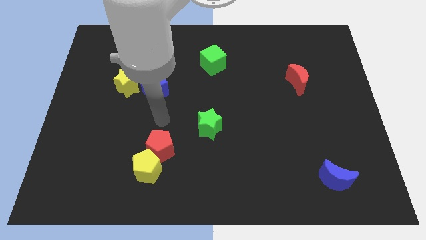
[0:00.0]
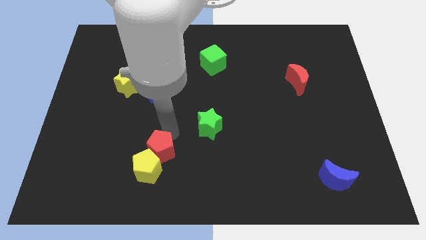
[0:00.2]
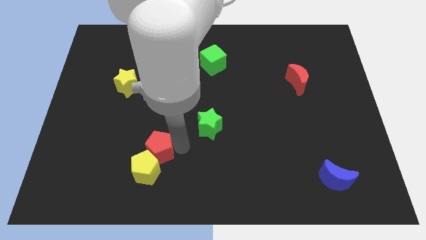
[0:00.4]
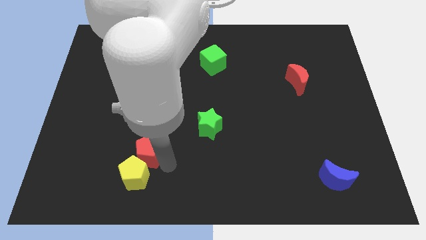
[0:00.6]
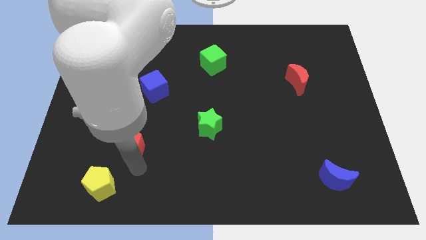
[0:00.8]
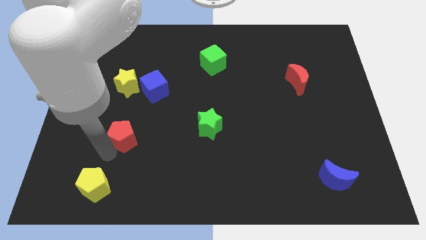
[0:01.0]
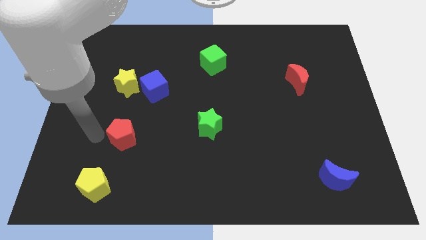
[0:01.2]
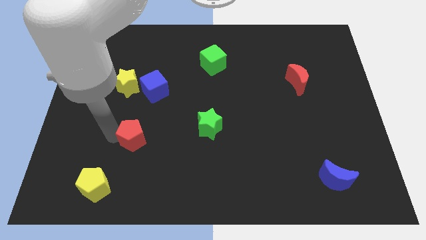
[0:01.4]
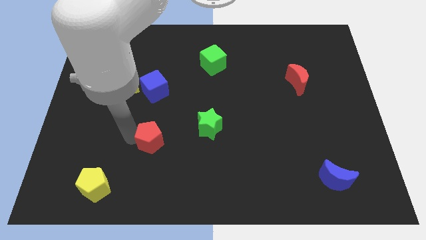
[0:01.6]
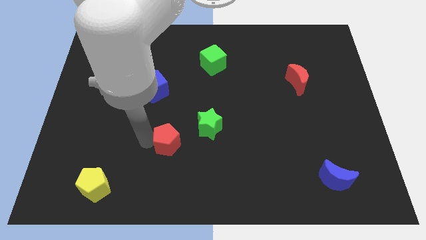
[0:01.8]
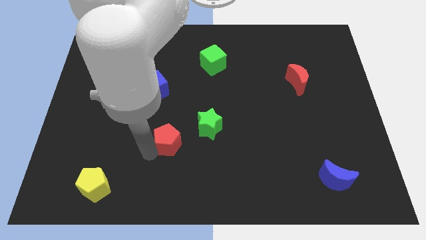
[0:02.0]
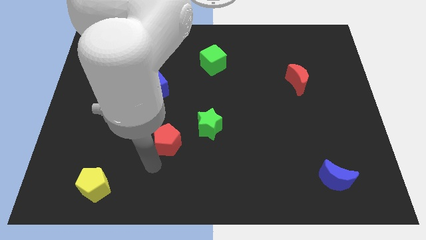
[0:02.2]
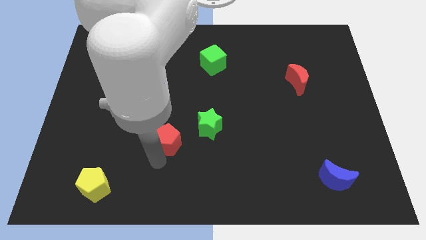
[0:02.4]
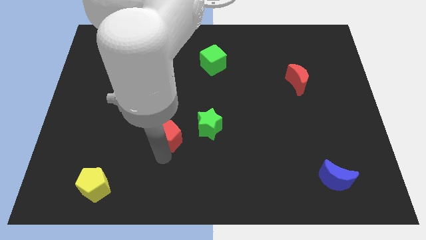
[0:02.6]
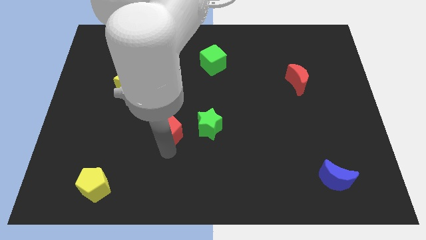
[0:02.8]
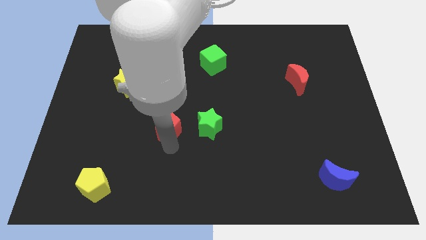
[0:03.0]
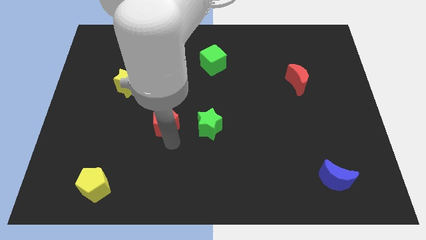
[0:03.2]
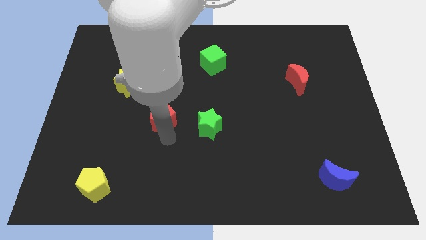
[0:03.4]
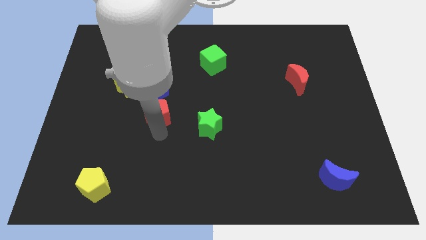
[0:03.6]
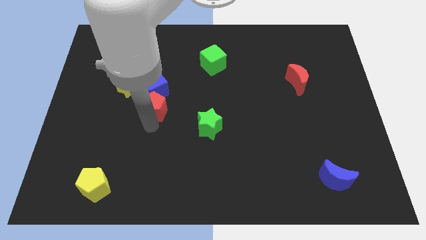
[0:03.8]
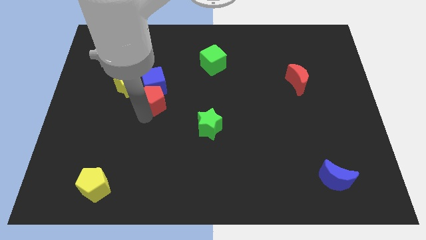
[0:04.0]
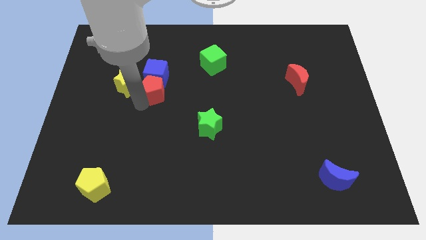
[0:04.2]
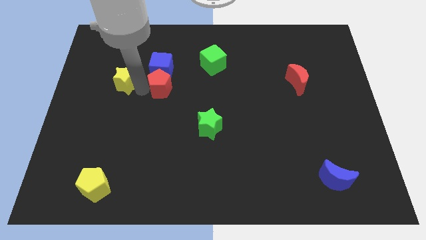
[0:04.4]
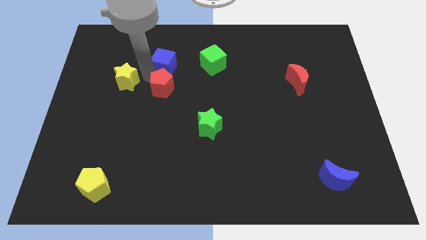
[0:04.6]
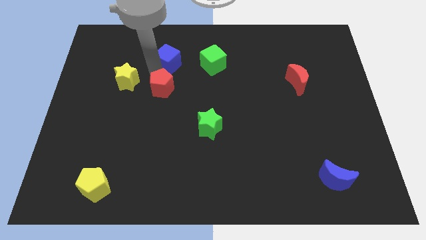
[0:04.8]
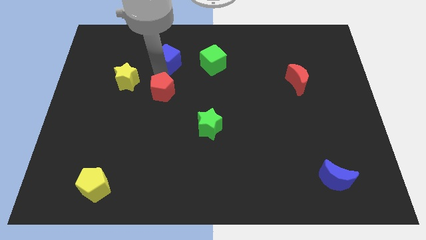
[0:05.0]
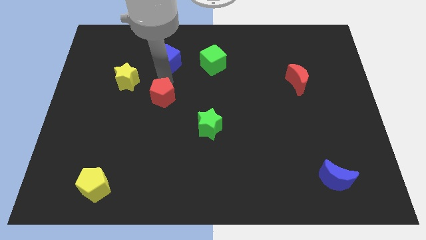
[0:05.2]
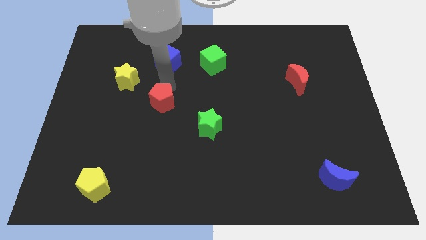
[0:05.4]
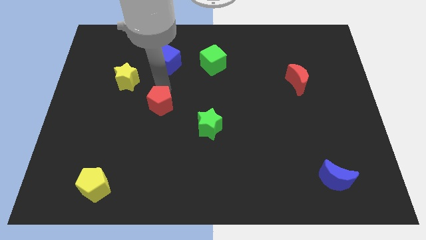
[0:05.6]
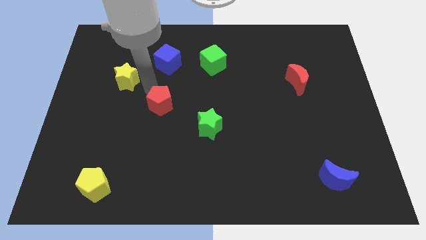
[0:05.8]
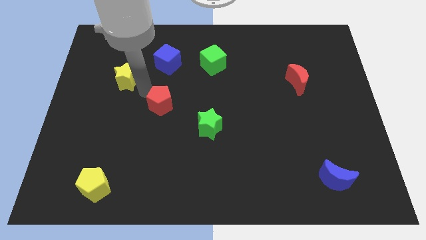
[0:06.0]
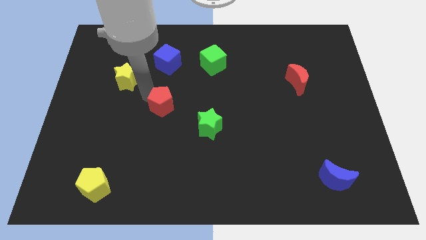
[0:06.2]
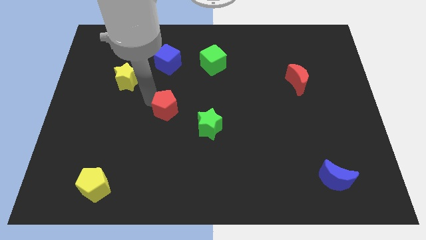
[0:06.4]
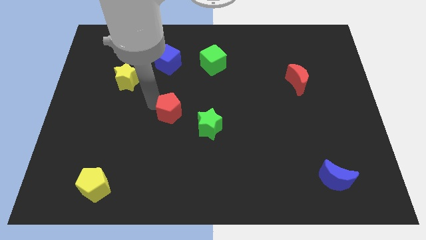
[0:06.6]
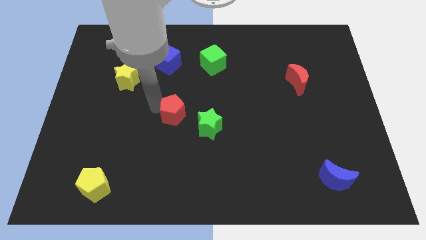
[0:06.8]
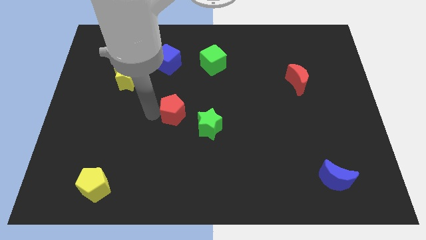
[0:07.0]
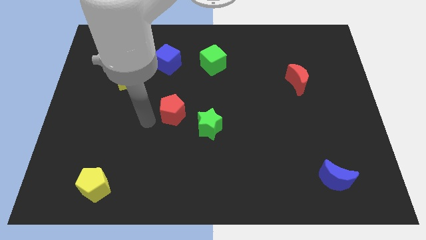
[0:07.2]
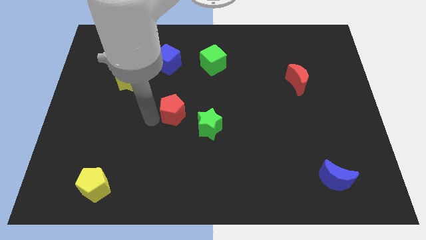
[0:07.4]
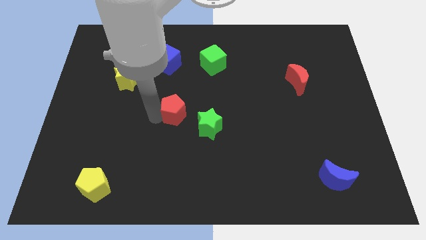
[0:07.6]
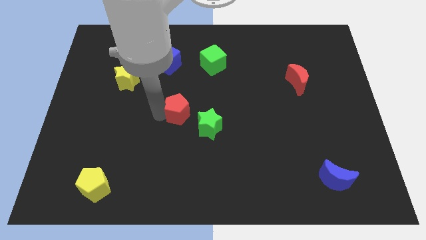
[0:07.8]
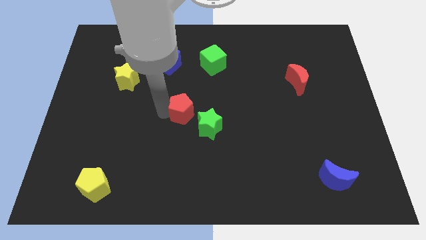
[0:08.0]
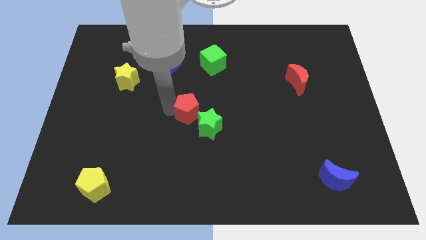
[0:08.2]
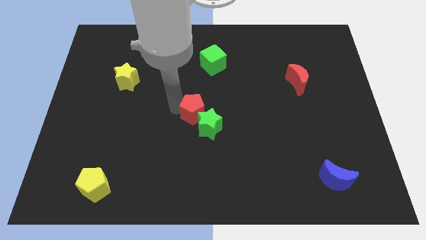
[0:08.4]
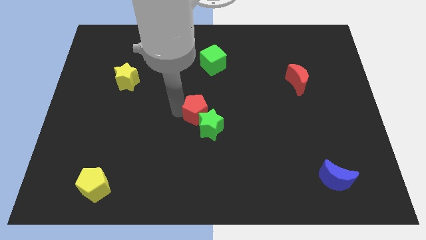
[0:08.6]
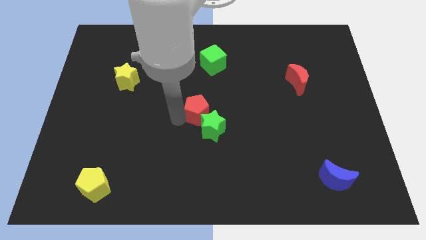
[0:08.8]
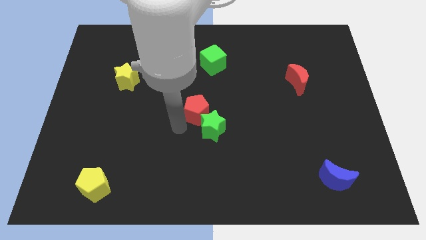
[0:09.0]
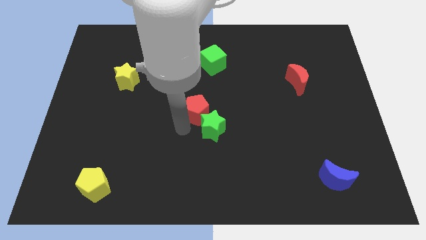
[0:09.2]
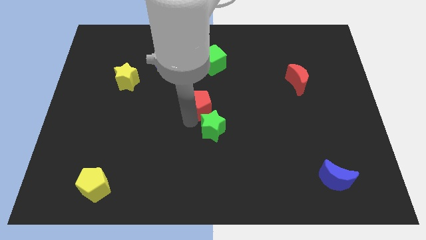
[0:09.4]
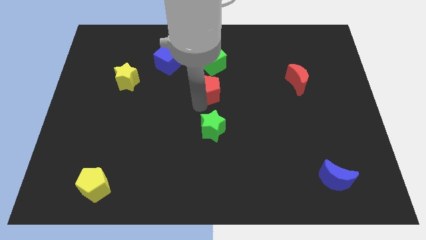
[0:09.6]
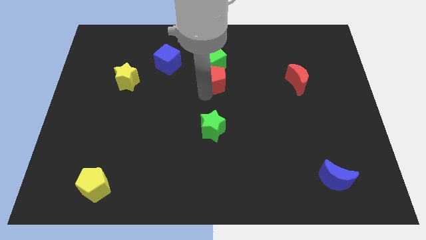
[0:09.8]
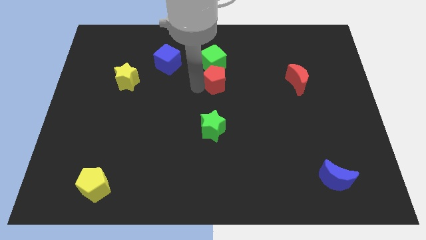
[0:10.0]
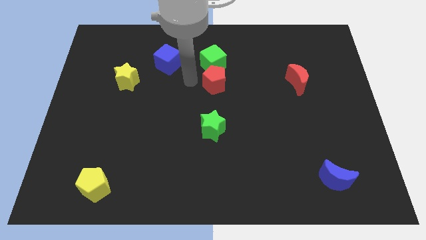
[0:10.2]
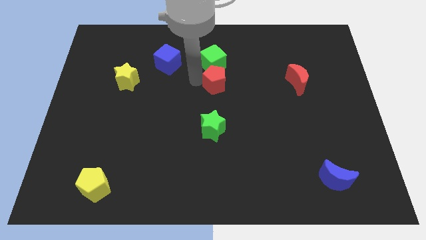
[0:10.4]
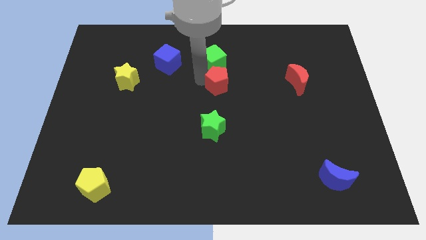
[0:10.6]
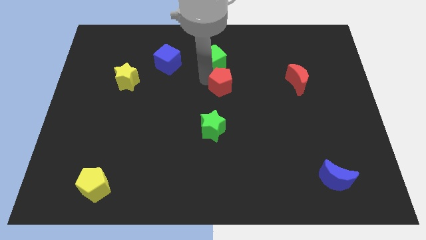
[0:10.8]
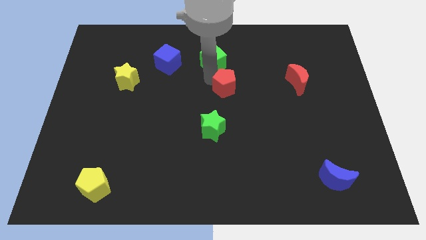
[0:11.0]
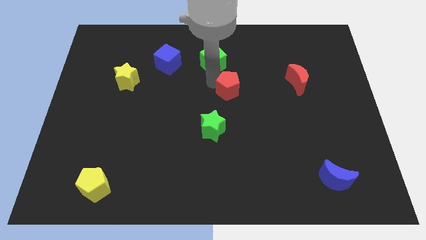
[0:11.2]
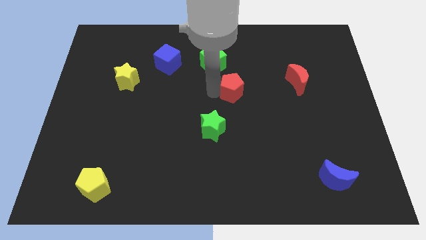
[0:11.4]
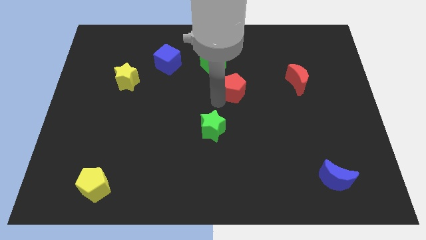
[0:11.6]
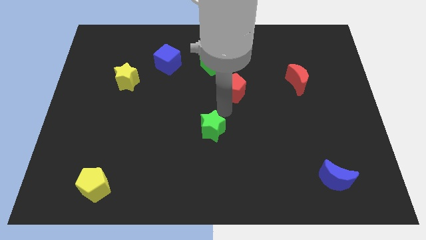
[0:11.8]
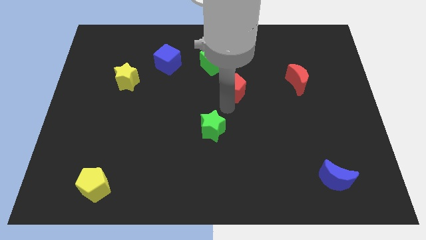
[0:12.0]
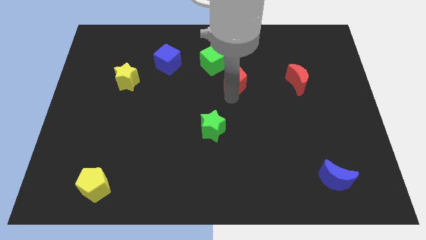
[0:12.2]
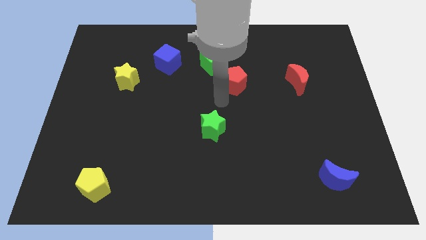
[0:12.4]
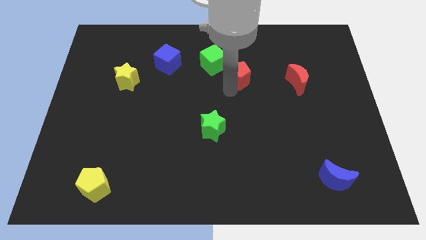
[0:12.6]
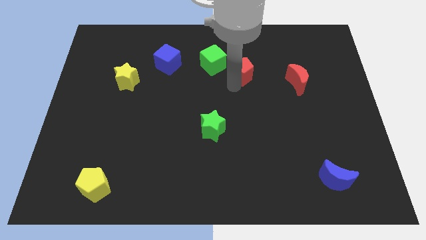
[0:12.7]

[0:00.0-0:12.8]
slide the red pentagon to the right of the green cube

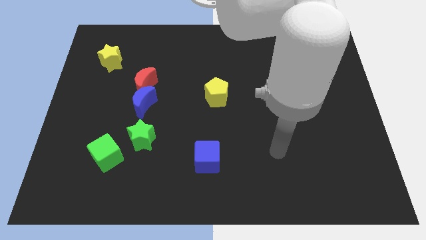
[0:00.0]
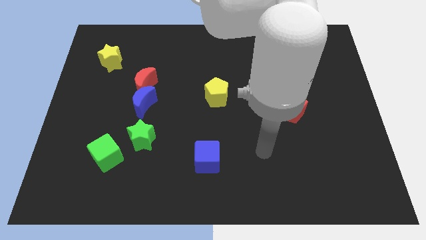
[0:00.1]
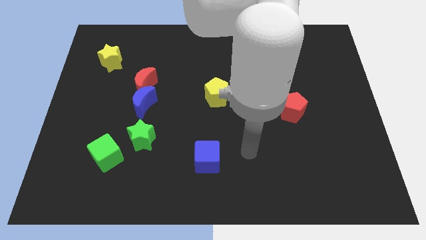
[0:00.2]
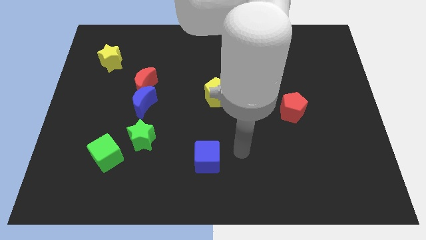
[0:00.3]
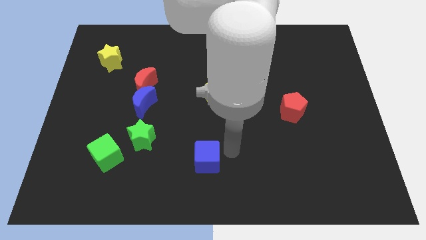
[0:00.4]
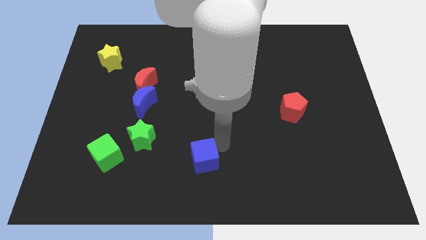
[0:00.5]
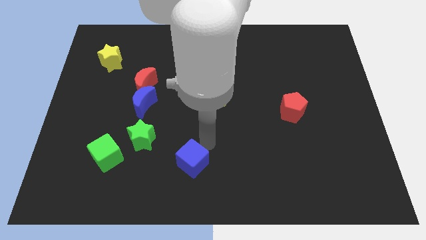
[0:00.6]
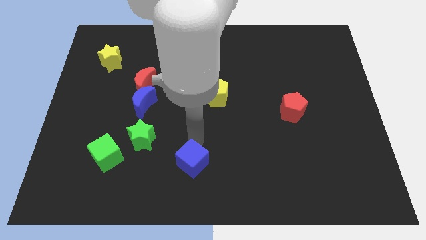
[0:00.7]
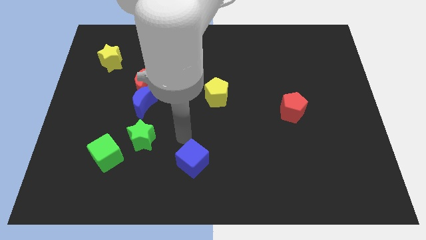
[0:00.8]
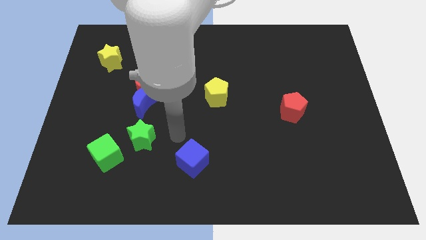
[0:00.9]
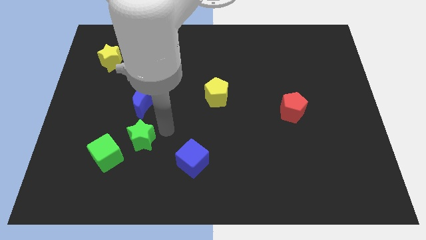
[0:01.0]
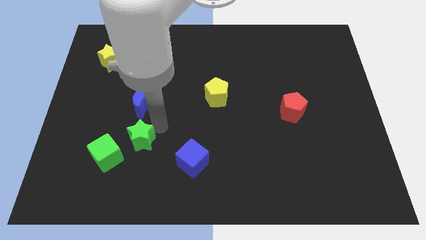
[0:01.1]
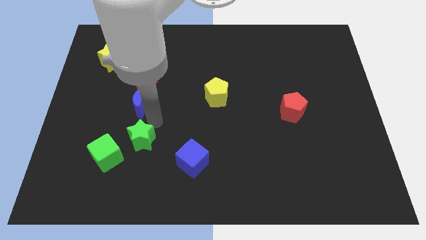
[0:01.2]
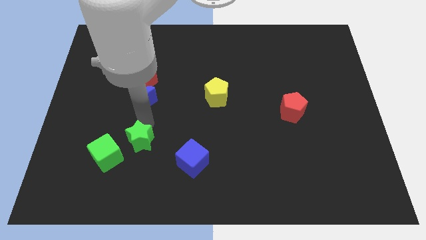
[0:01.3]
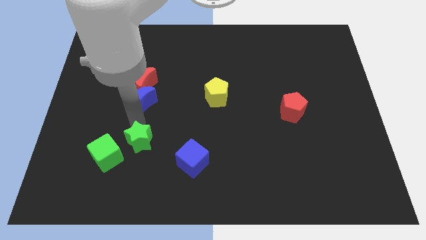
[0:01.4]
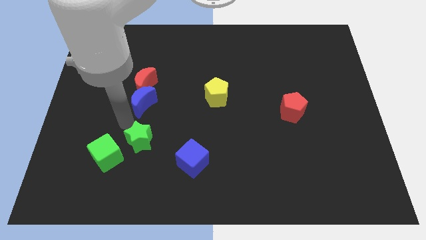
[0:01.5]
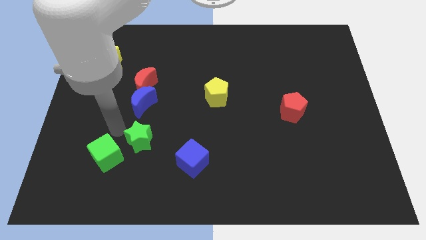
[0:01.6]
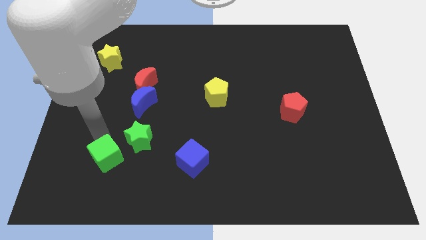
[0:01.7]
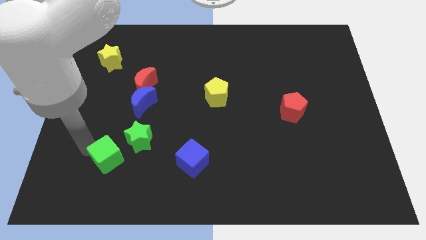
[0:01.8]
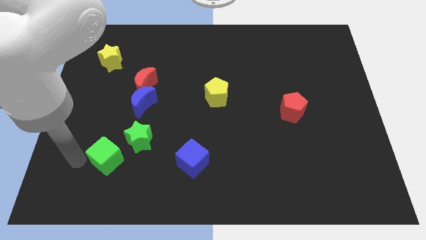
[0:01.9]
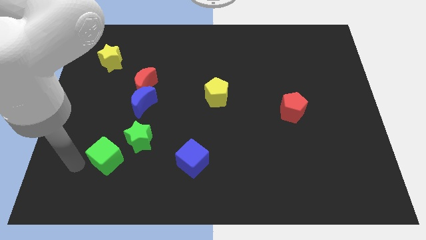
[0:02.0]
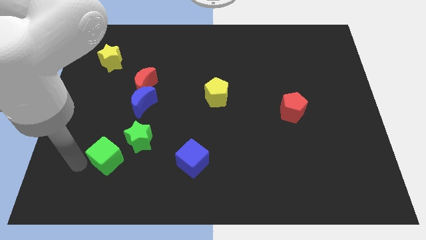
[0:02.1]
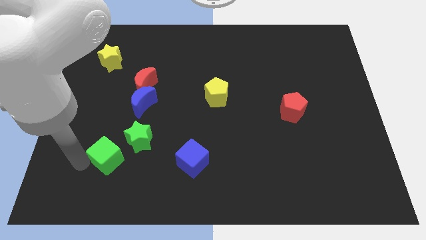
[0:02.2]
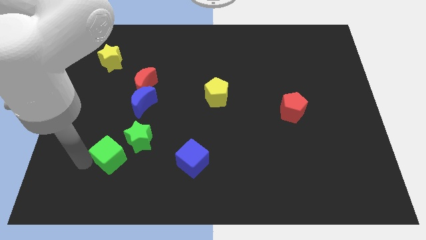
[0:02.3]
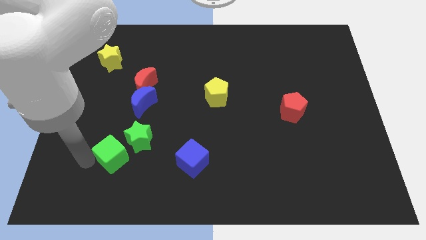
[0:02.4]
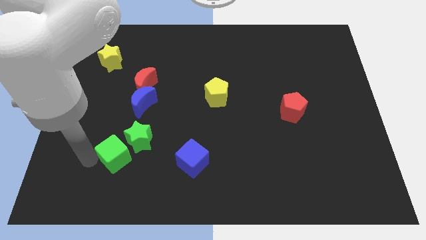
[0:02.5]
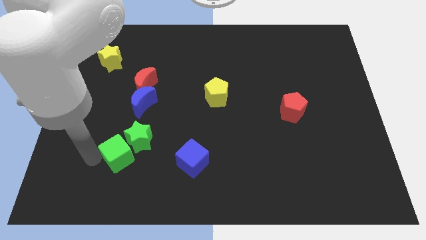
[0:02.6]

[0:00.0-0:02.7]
move the green cube left of the blue cube
